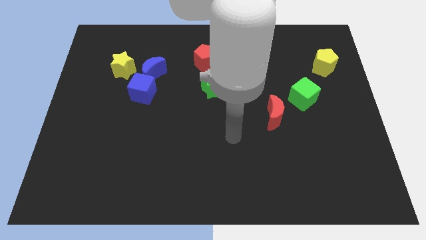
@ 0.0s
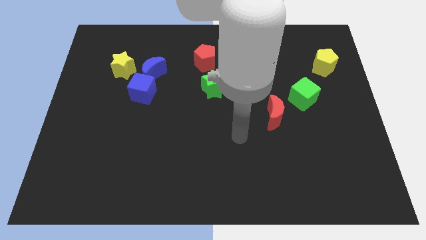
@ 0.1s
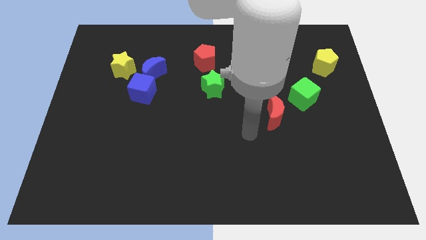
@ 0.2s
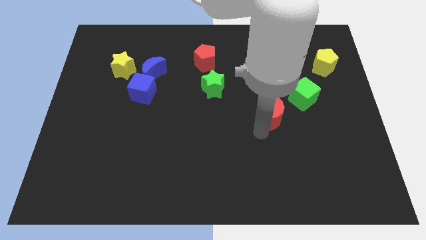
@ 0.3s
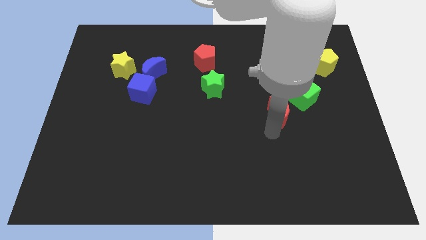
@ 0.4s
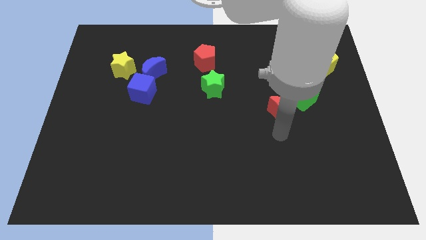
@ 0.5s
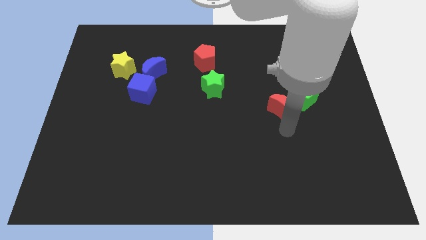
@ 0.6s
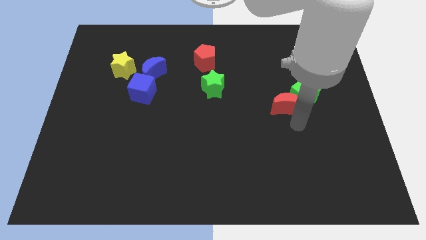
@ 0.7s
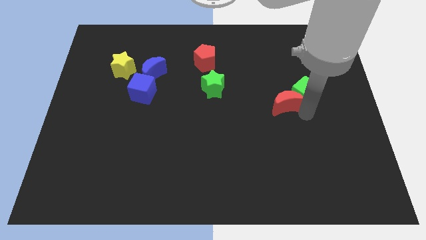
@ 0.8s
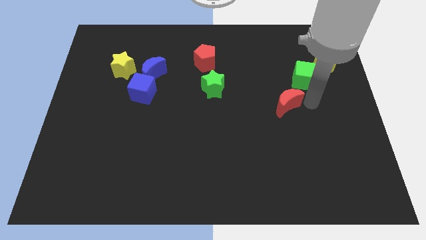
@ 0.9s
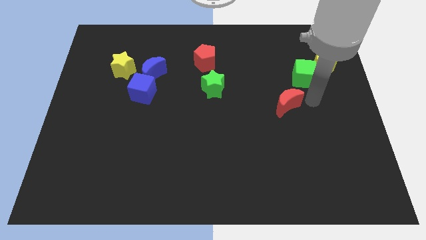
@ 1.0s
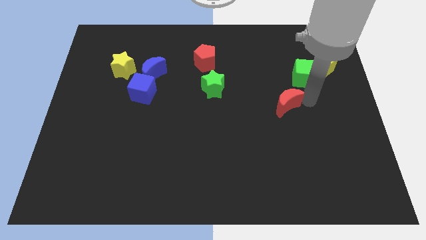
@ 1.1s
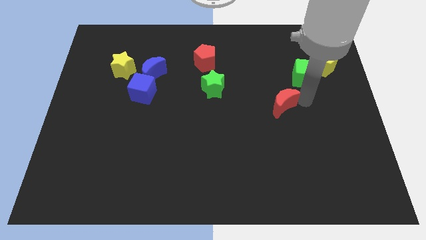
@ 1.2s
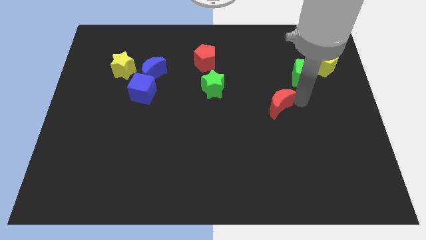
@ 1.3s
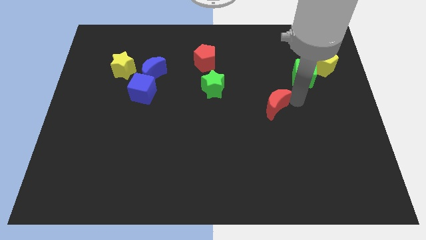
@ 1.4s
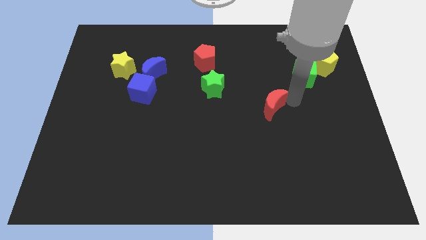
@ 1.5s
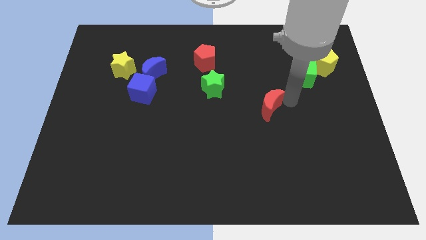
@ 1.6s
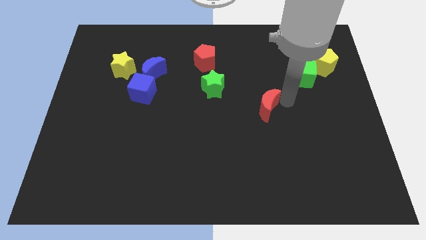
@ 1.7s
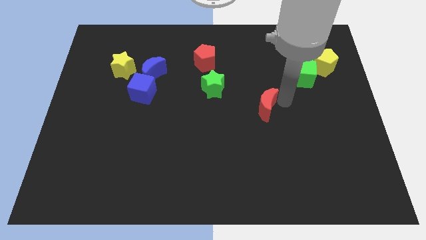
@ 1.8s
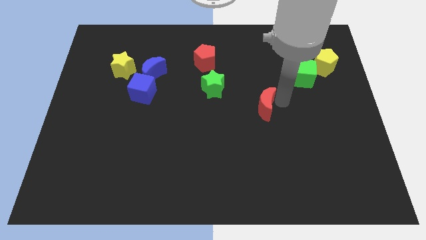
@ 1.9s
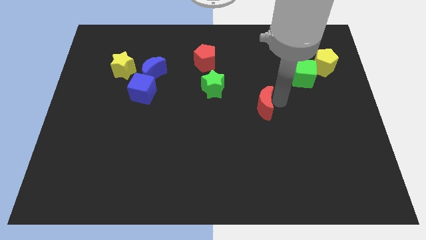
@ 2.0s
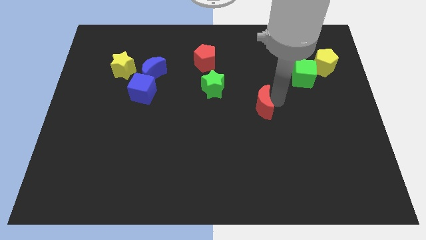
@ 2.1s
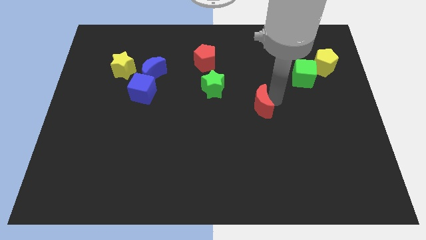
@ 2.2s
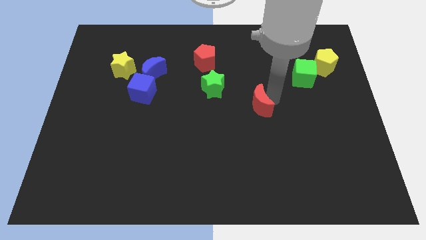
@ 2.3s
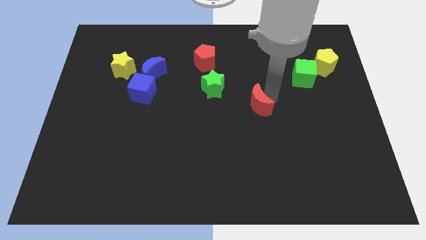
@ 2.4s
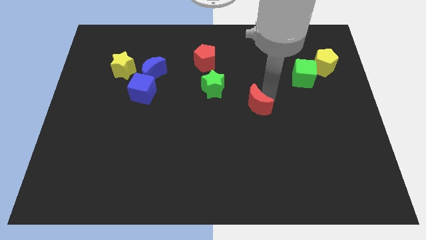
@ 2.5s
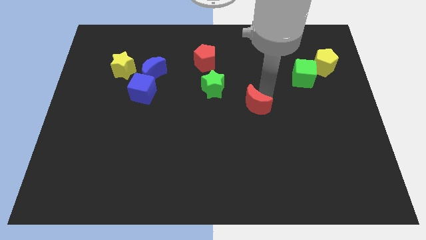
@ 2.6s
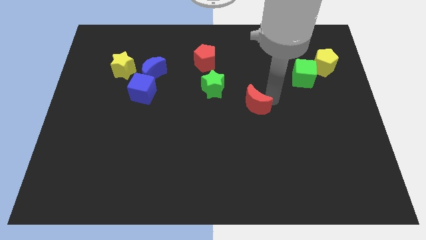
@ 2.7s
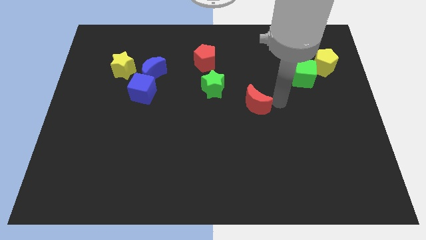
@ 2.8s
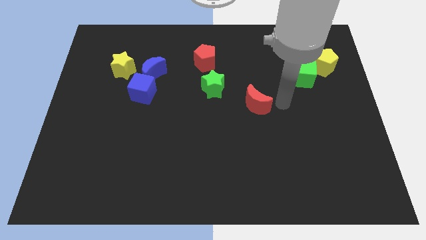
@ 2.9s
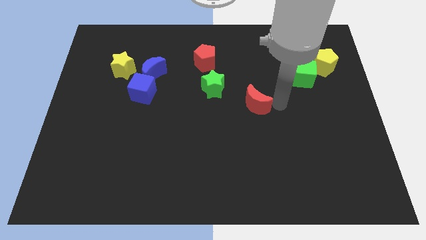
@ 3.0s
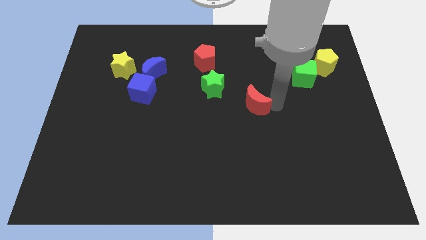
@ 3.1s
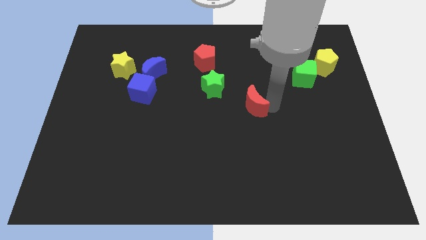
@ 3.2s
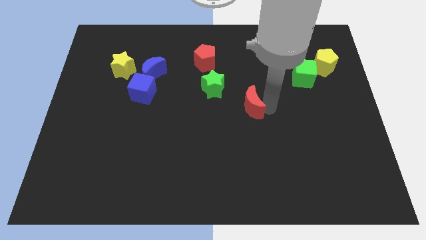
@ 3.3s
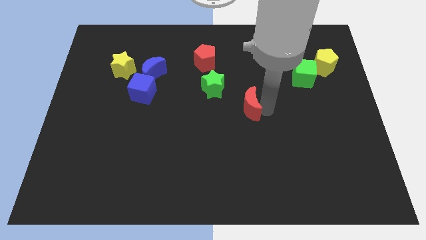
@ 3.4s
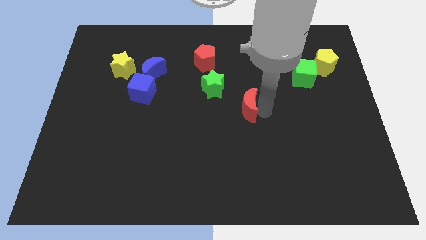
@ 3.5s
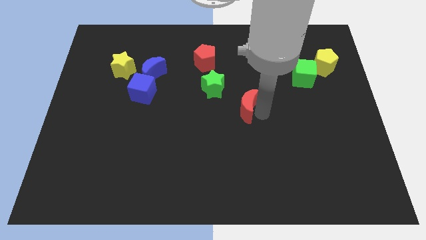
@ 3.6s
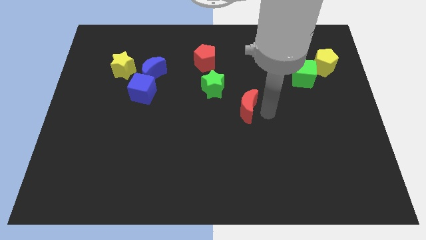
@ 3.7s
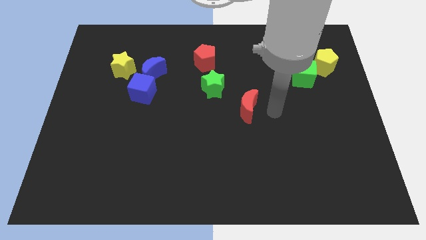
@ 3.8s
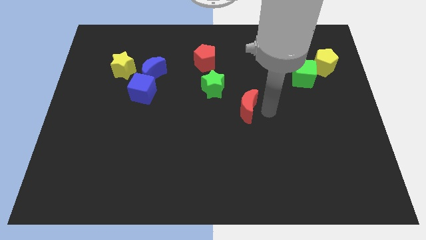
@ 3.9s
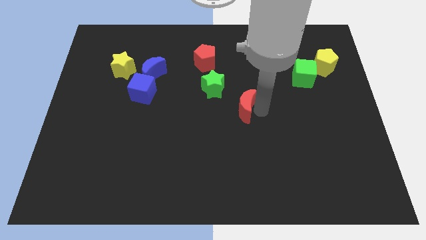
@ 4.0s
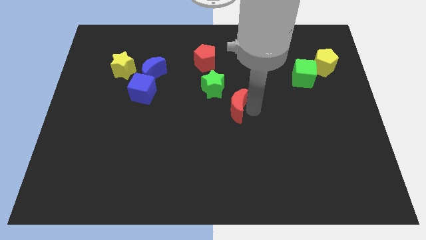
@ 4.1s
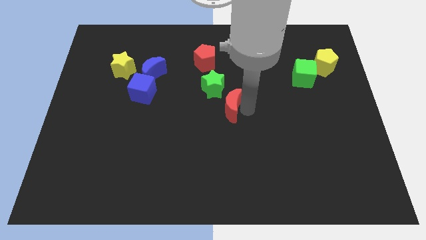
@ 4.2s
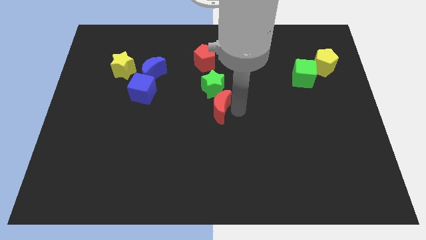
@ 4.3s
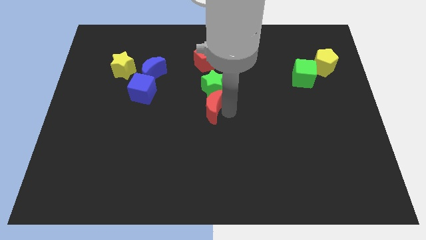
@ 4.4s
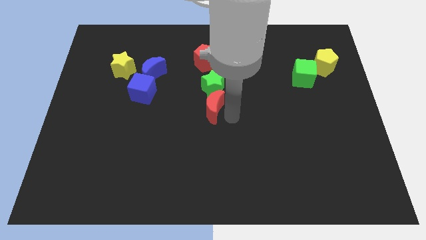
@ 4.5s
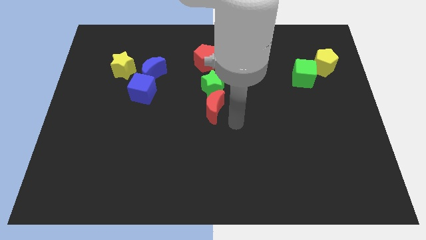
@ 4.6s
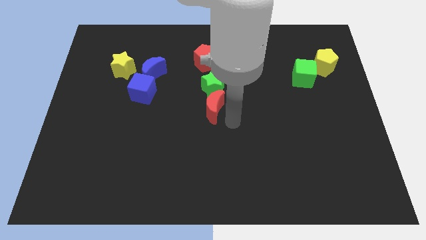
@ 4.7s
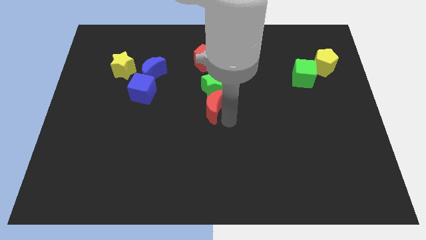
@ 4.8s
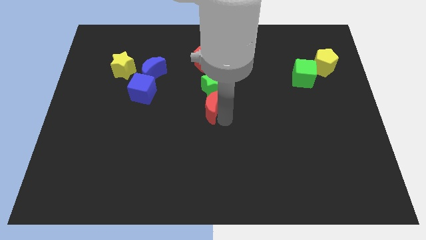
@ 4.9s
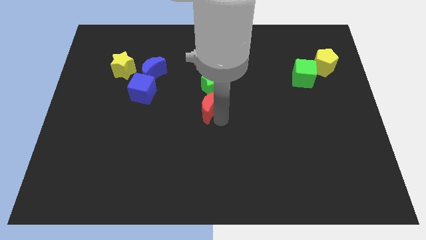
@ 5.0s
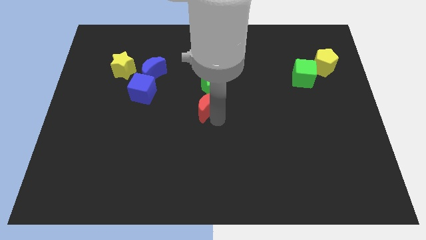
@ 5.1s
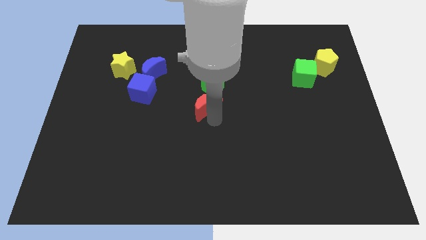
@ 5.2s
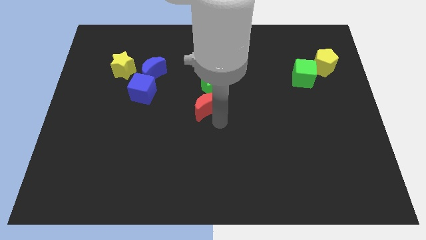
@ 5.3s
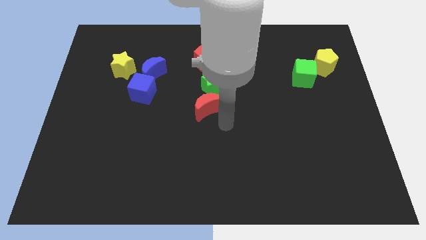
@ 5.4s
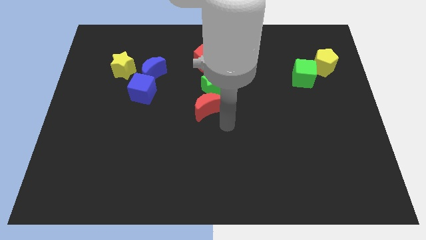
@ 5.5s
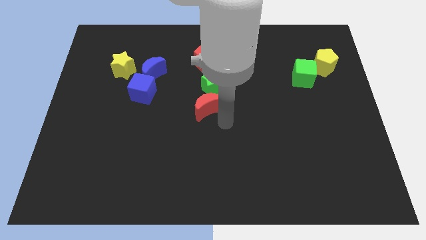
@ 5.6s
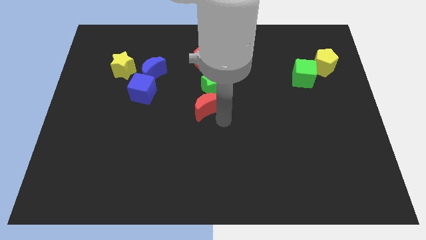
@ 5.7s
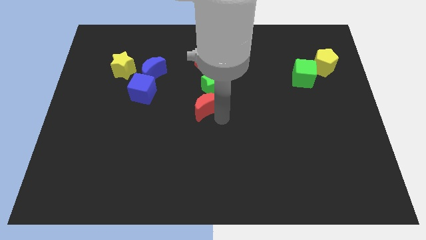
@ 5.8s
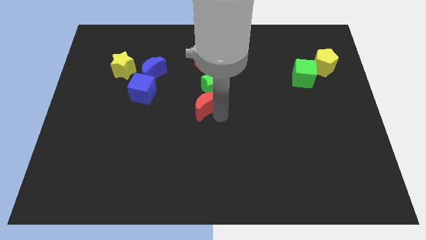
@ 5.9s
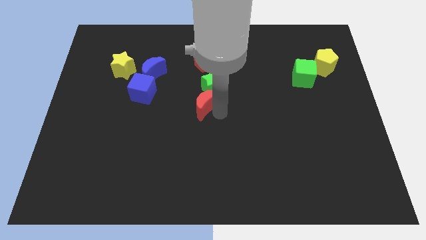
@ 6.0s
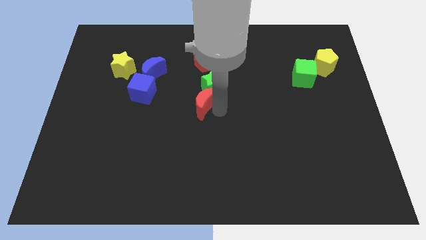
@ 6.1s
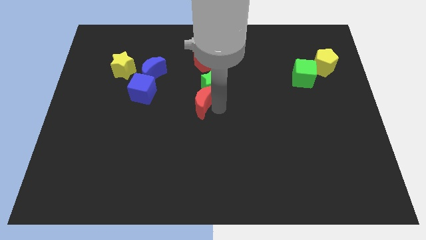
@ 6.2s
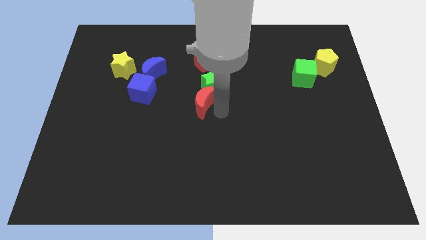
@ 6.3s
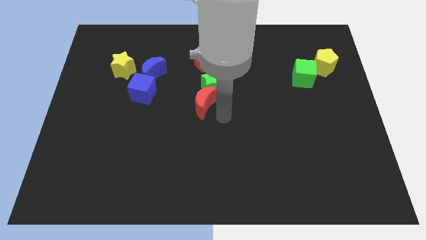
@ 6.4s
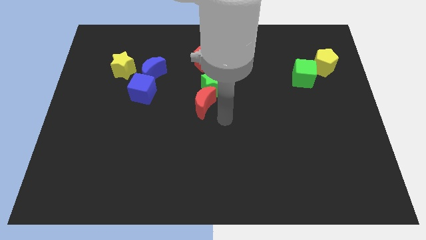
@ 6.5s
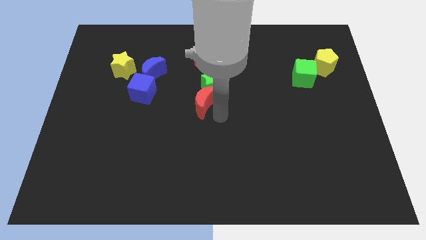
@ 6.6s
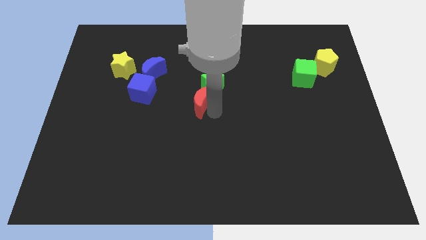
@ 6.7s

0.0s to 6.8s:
move the red moon just right of the blue cube
